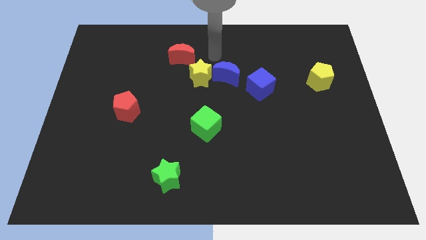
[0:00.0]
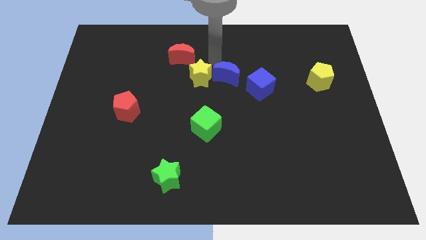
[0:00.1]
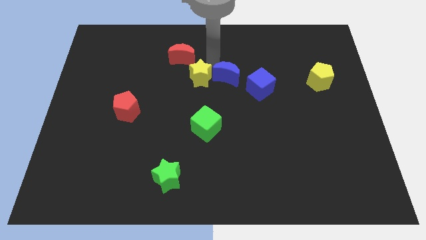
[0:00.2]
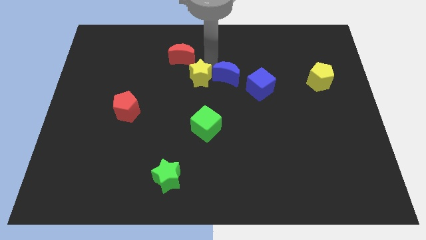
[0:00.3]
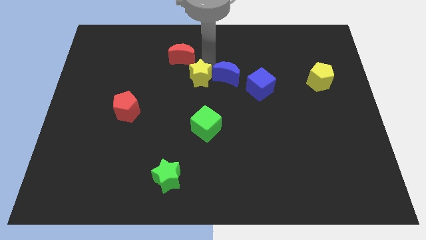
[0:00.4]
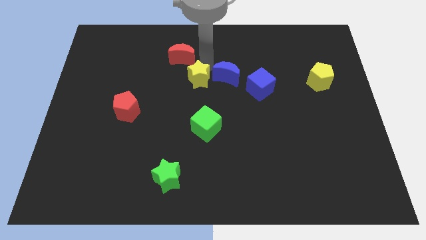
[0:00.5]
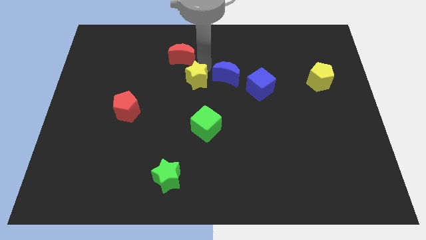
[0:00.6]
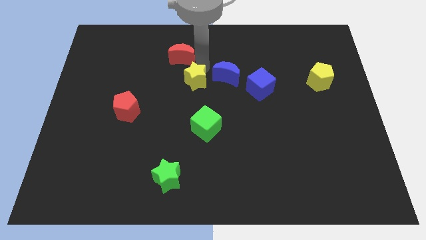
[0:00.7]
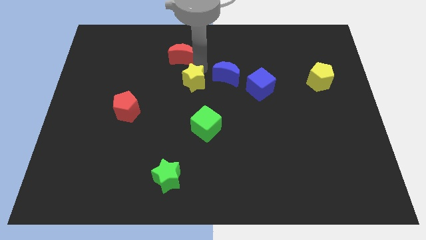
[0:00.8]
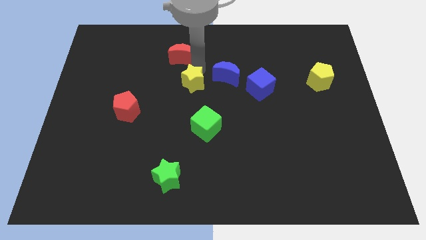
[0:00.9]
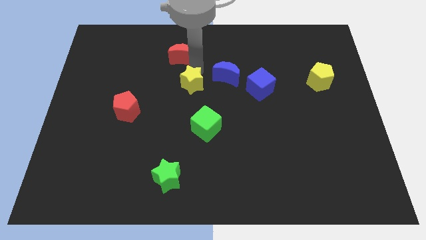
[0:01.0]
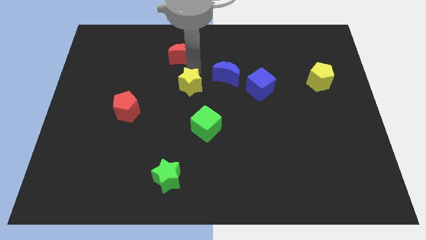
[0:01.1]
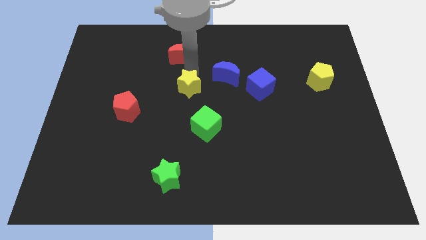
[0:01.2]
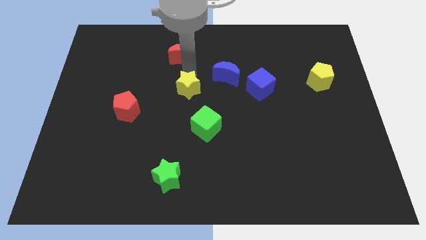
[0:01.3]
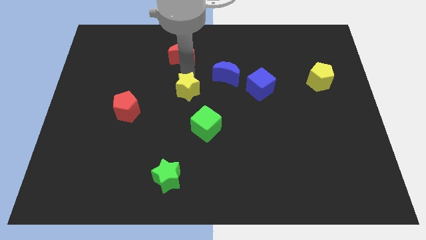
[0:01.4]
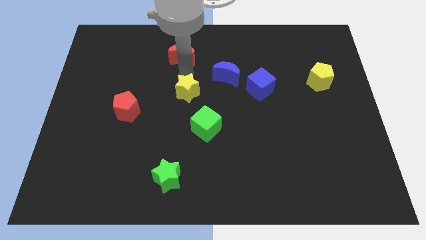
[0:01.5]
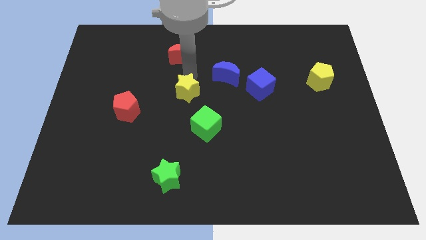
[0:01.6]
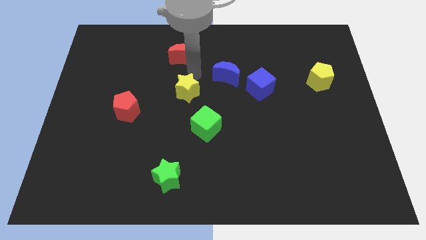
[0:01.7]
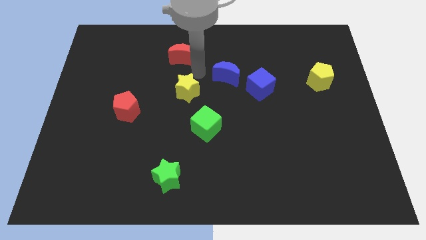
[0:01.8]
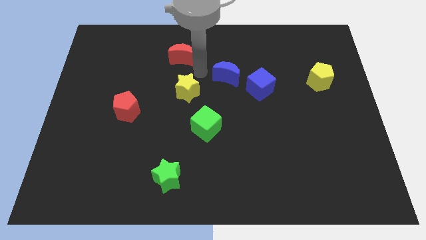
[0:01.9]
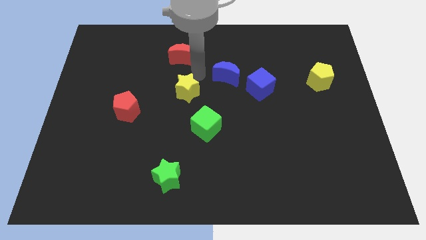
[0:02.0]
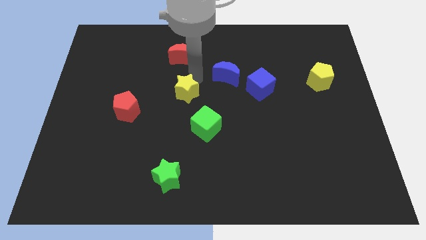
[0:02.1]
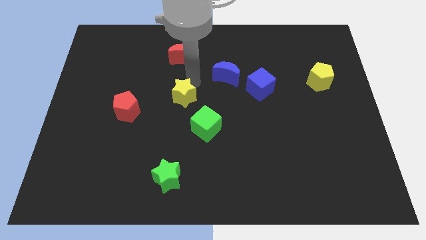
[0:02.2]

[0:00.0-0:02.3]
pull the yellow star apart from the blue moon and red moon

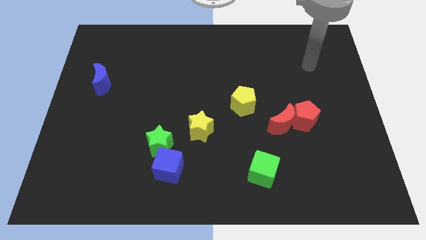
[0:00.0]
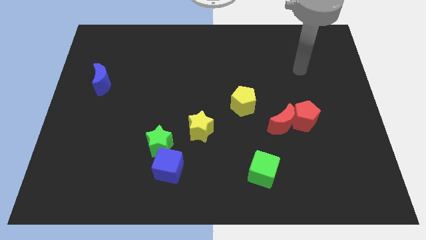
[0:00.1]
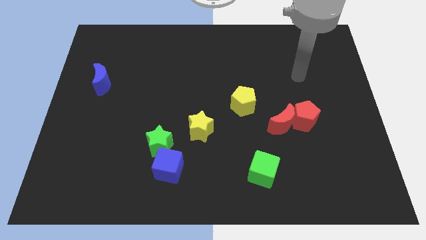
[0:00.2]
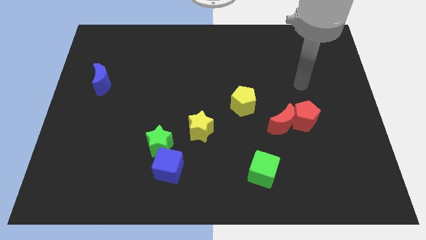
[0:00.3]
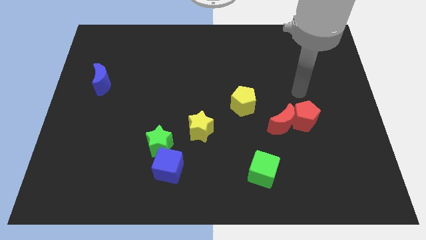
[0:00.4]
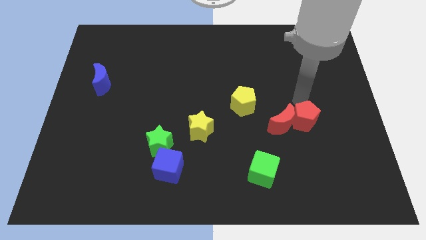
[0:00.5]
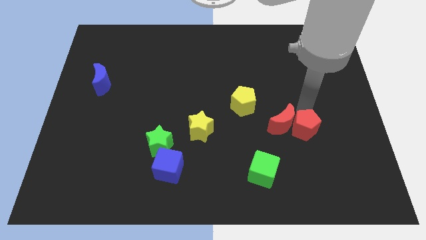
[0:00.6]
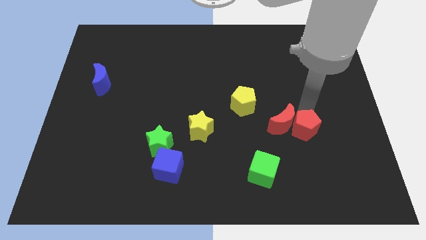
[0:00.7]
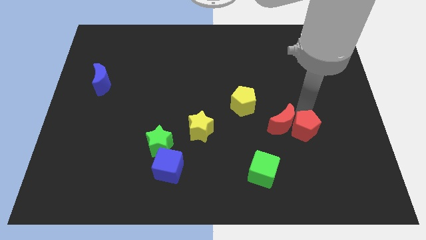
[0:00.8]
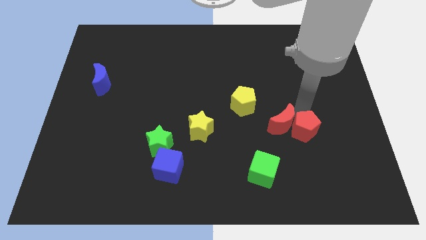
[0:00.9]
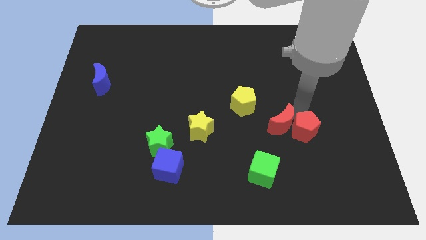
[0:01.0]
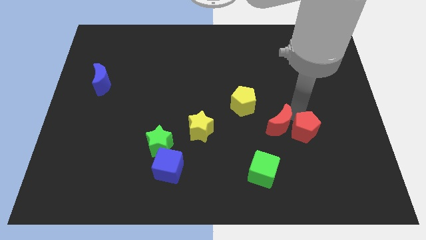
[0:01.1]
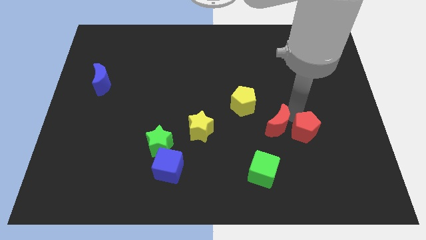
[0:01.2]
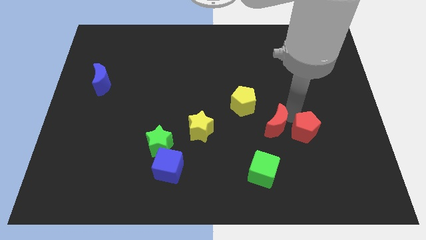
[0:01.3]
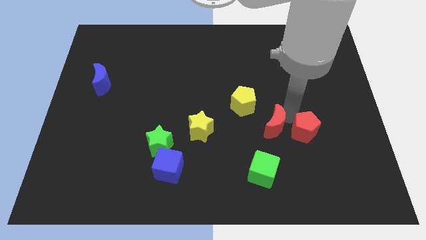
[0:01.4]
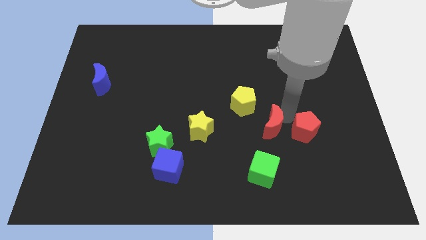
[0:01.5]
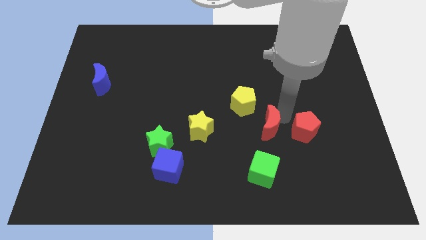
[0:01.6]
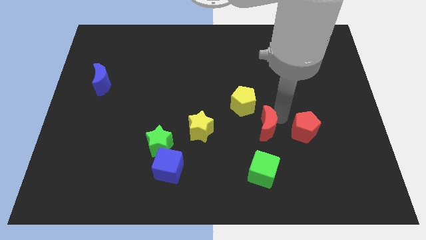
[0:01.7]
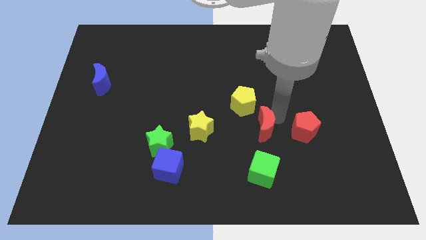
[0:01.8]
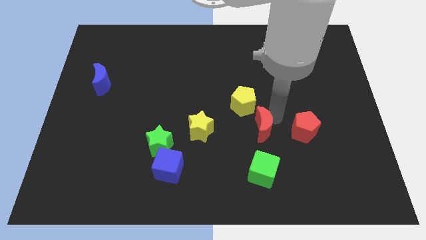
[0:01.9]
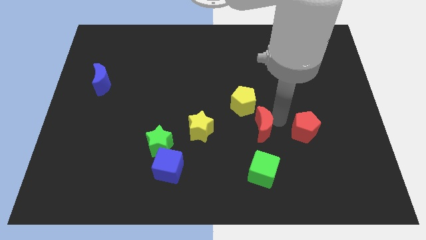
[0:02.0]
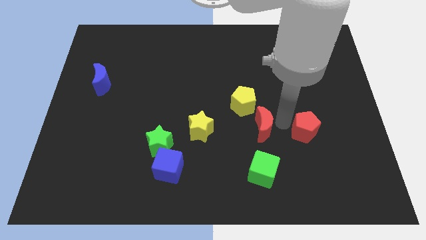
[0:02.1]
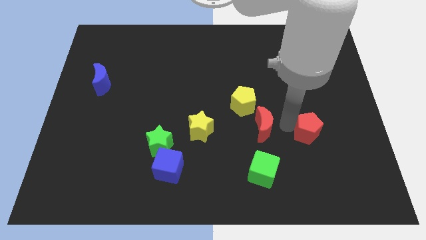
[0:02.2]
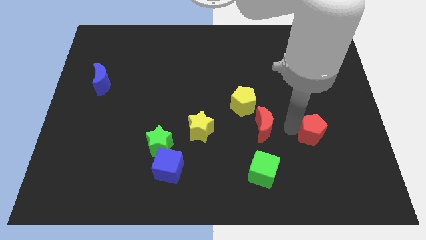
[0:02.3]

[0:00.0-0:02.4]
separate the red moon from the red pentagon

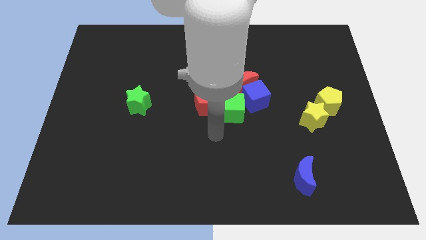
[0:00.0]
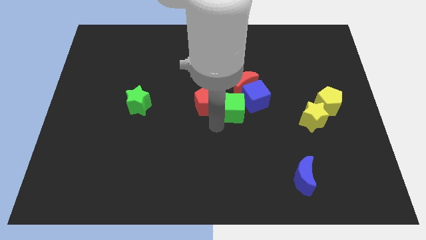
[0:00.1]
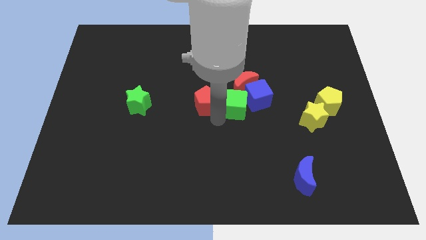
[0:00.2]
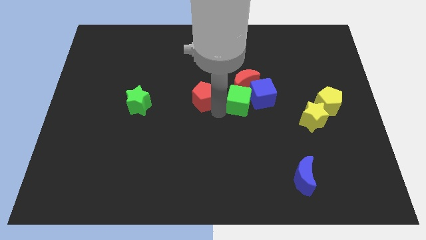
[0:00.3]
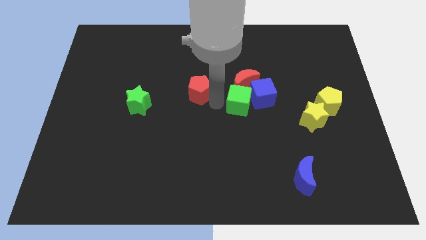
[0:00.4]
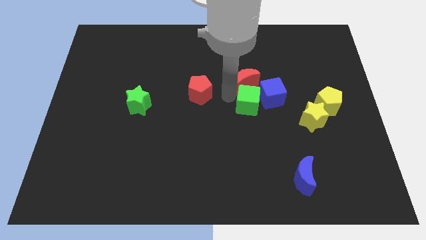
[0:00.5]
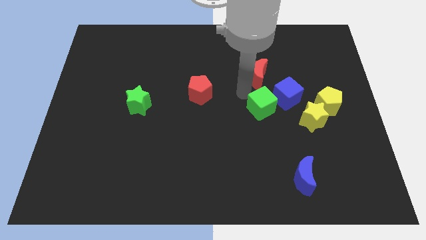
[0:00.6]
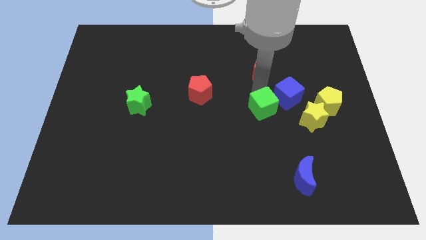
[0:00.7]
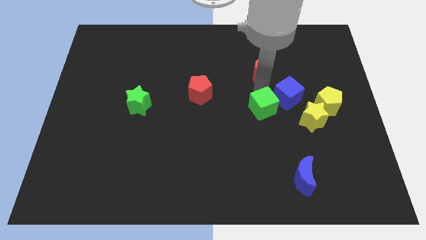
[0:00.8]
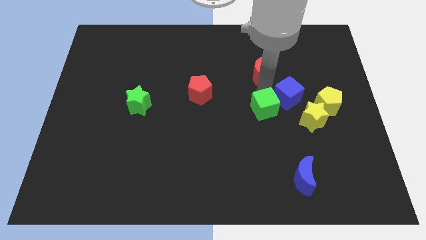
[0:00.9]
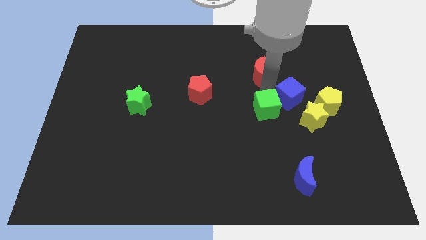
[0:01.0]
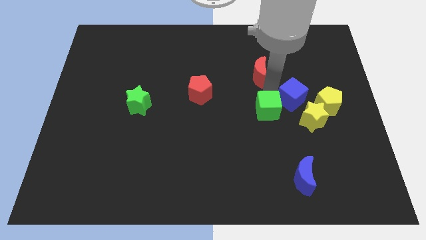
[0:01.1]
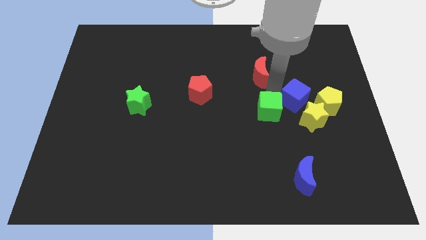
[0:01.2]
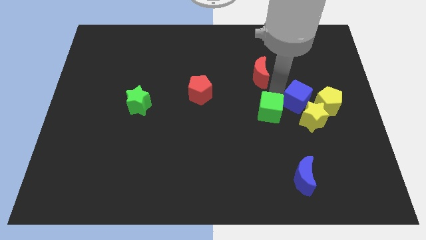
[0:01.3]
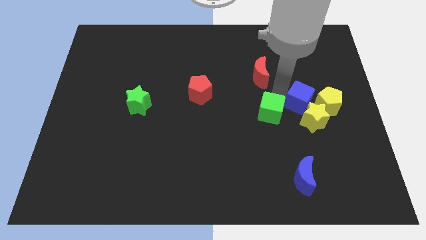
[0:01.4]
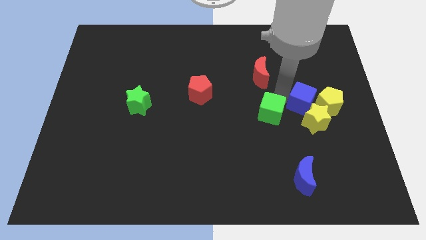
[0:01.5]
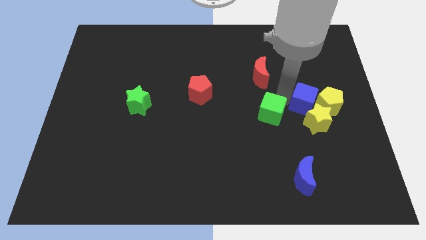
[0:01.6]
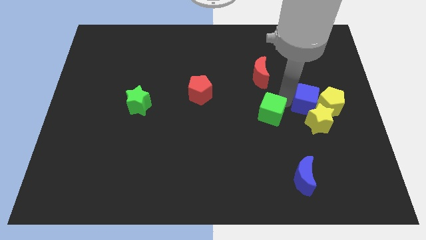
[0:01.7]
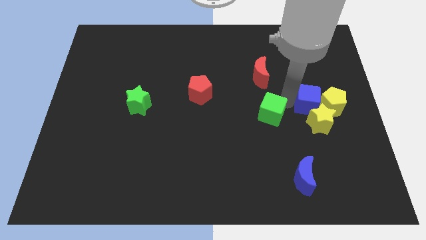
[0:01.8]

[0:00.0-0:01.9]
move the blue cube away from the red moon and green cube

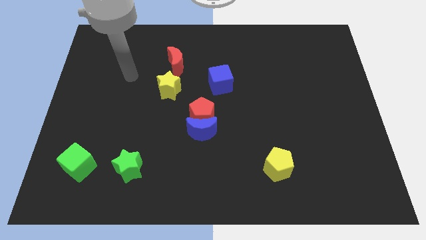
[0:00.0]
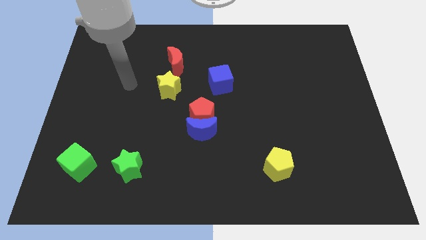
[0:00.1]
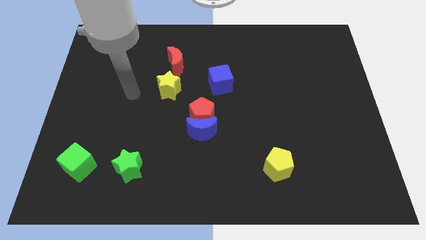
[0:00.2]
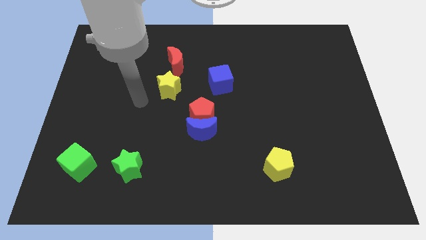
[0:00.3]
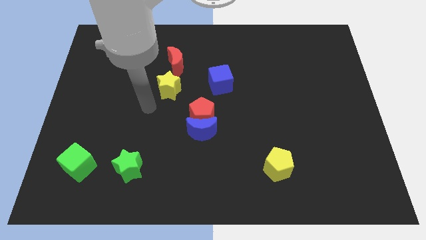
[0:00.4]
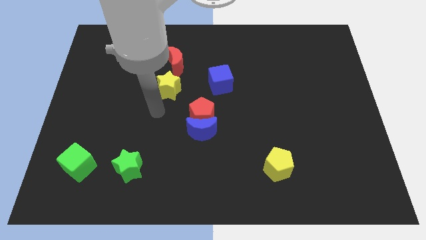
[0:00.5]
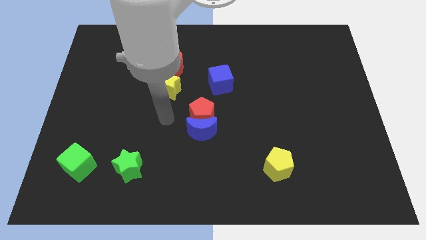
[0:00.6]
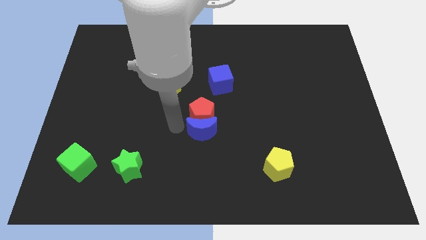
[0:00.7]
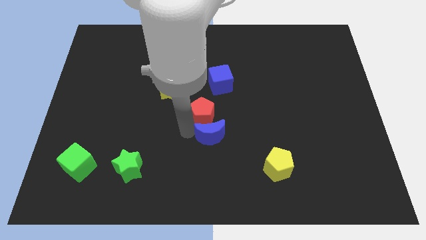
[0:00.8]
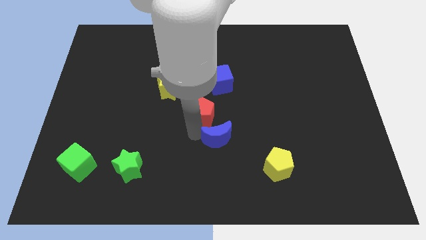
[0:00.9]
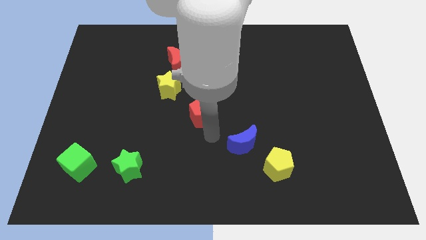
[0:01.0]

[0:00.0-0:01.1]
move the red pentagon away from the blue moon

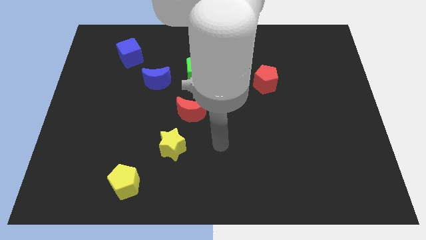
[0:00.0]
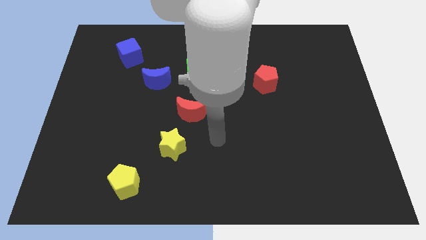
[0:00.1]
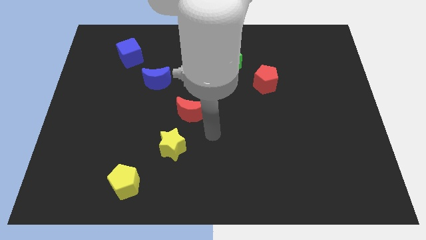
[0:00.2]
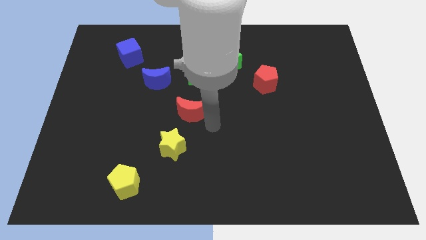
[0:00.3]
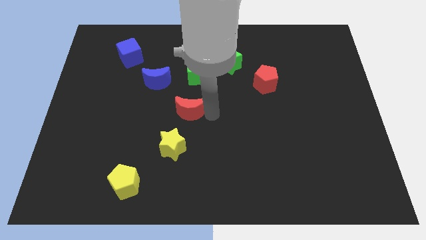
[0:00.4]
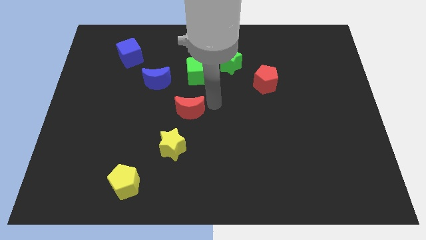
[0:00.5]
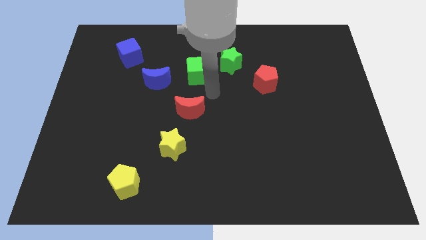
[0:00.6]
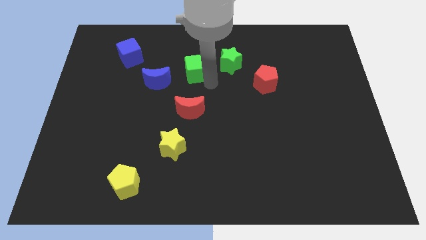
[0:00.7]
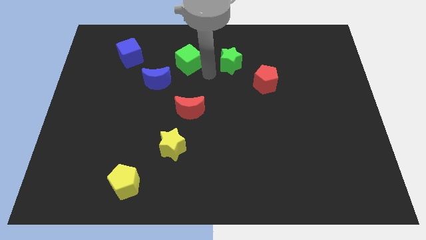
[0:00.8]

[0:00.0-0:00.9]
separate the green star from the green cube

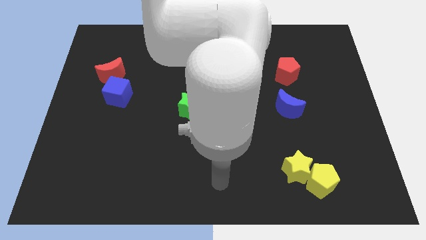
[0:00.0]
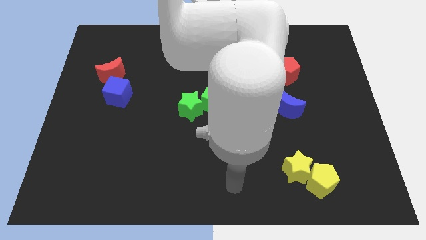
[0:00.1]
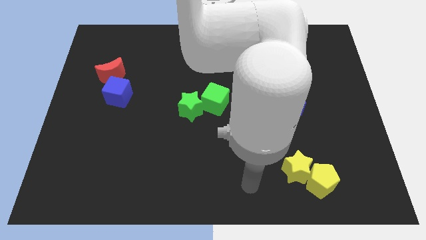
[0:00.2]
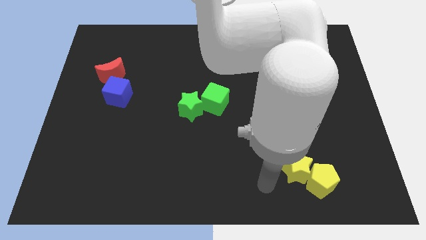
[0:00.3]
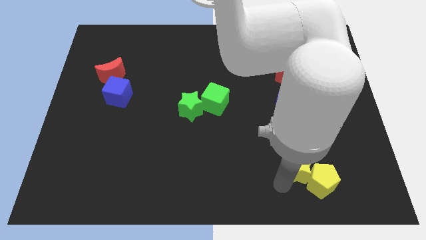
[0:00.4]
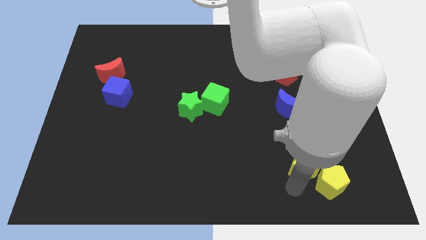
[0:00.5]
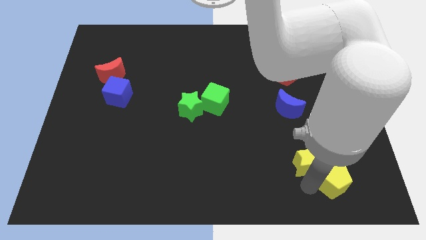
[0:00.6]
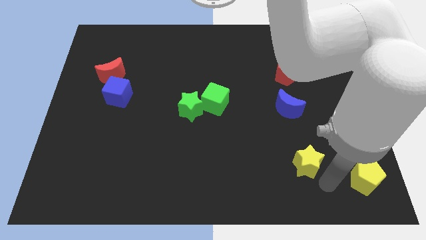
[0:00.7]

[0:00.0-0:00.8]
separate the yellow star from the yellow pentagon
